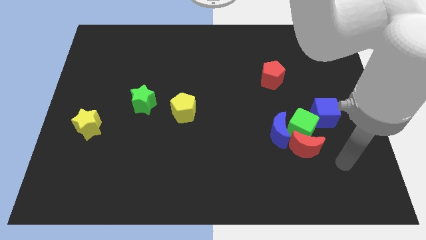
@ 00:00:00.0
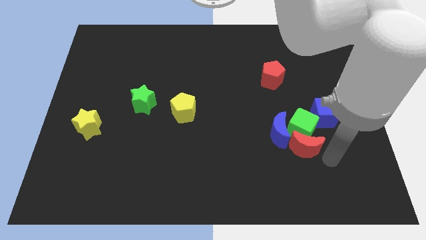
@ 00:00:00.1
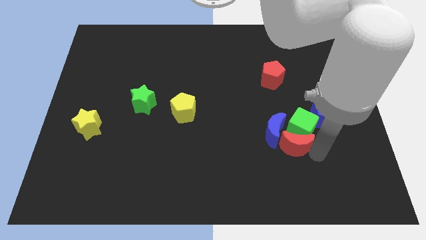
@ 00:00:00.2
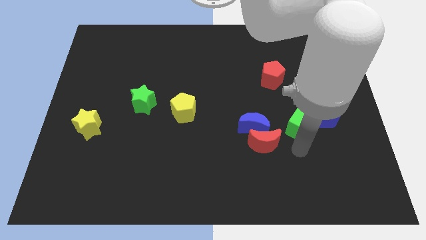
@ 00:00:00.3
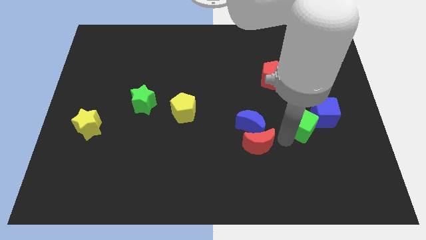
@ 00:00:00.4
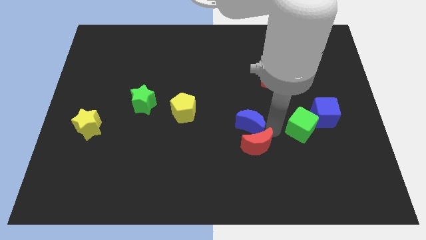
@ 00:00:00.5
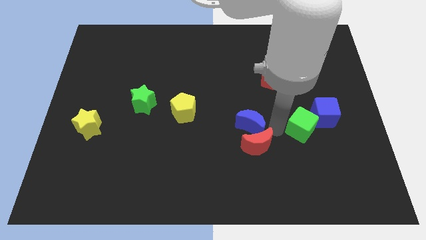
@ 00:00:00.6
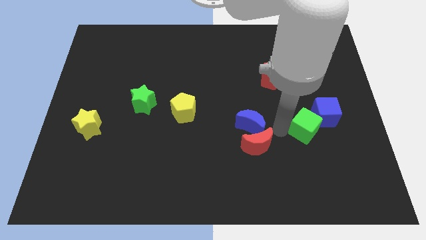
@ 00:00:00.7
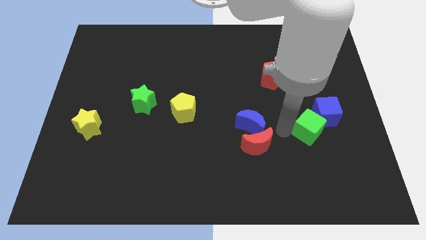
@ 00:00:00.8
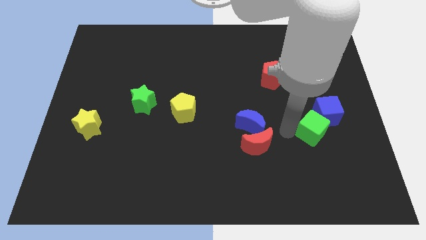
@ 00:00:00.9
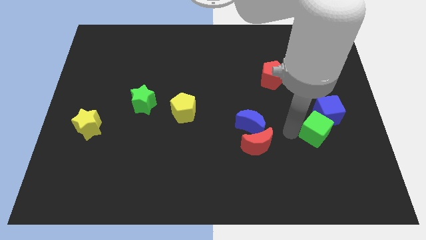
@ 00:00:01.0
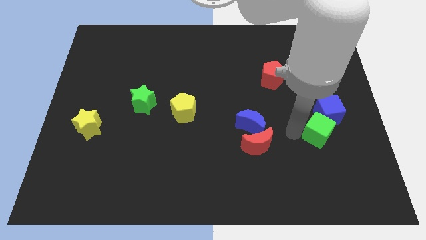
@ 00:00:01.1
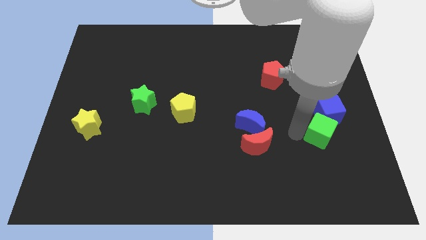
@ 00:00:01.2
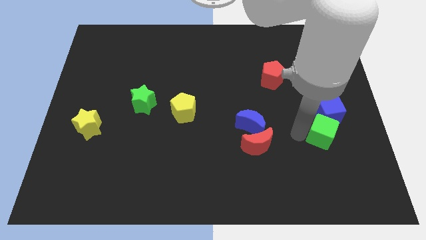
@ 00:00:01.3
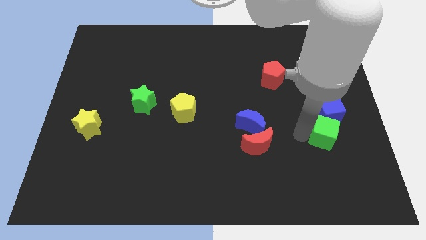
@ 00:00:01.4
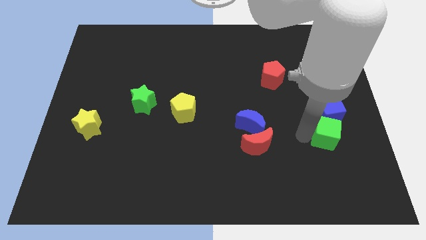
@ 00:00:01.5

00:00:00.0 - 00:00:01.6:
move the green cube away from the group

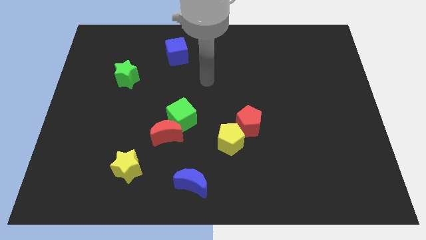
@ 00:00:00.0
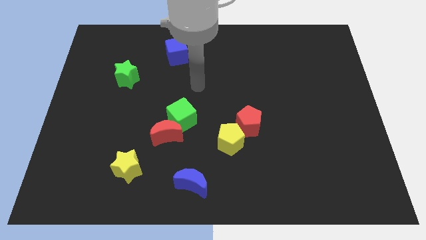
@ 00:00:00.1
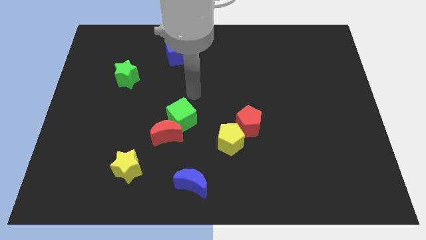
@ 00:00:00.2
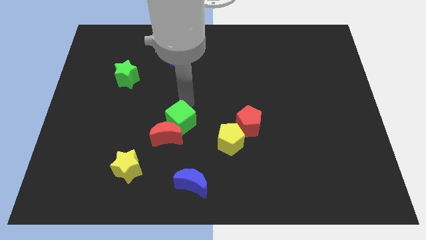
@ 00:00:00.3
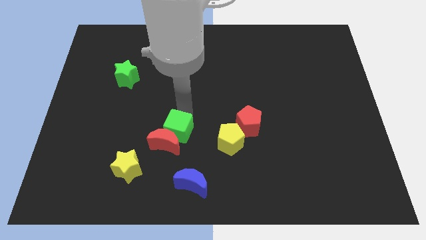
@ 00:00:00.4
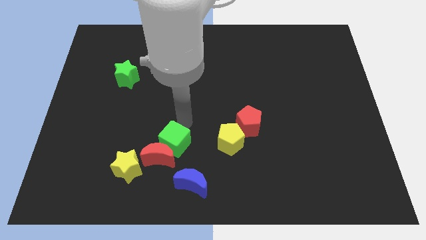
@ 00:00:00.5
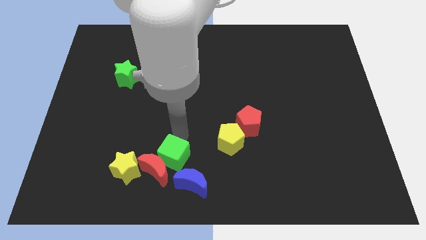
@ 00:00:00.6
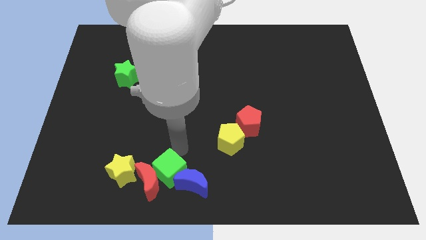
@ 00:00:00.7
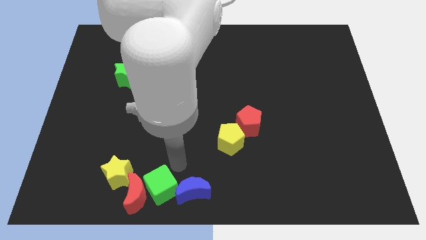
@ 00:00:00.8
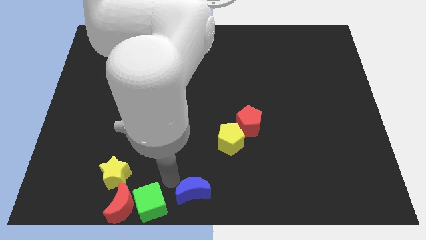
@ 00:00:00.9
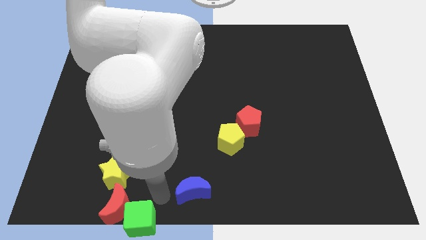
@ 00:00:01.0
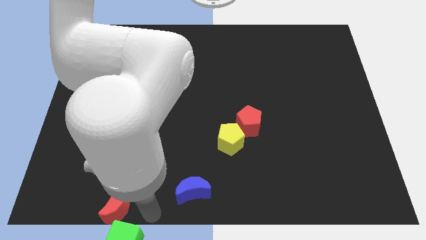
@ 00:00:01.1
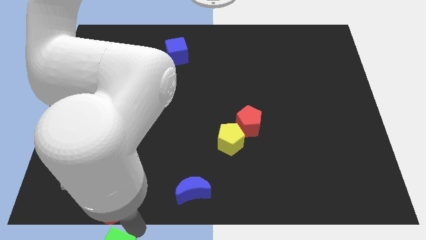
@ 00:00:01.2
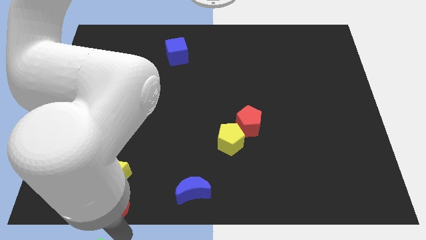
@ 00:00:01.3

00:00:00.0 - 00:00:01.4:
pull the red moon apart from the green cube

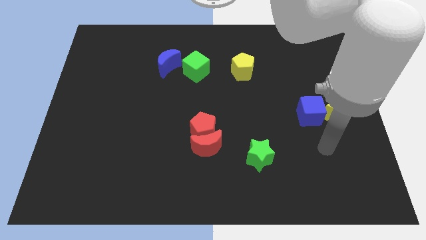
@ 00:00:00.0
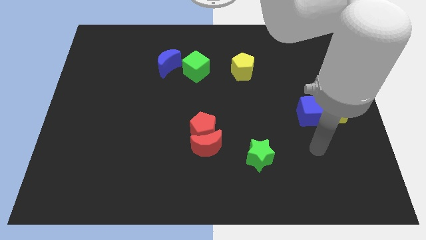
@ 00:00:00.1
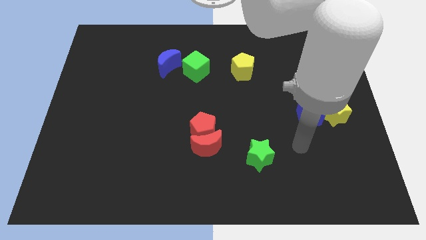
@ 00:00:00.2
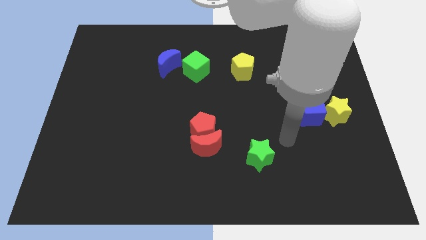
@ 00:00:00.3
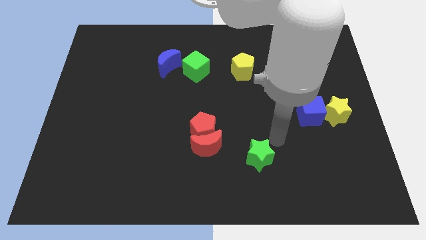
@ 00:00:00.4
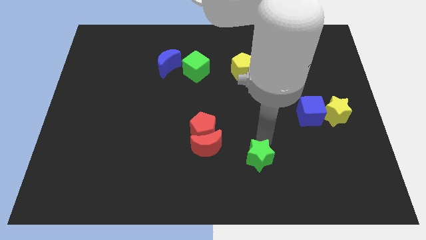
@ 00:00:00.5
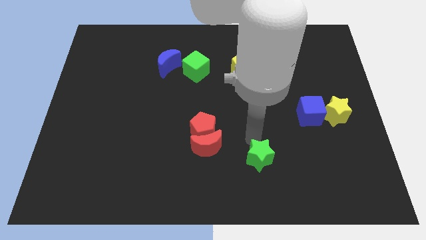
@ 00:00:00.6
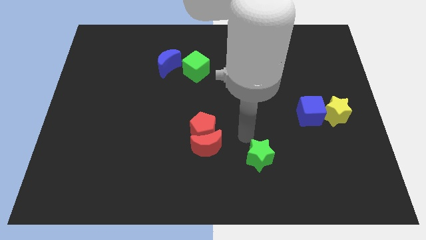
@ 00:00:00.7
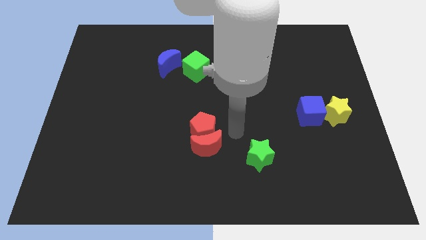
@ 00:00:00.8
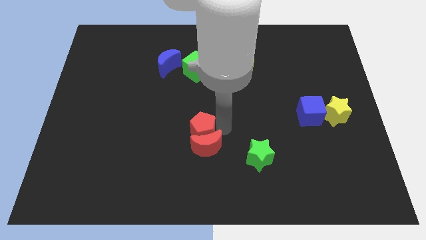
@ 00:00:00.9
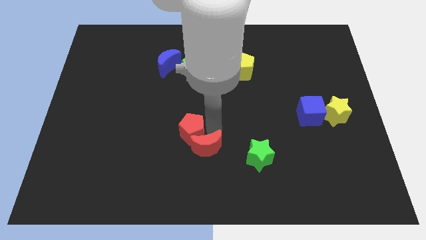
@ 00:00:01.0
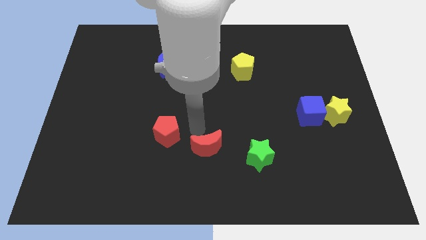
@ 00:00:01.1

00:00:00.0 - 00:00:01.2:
move the red moon away from the red pentagon

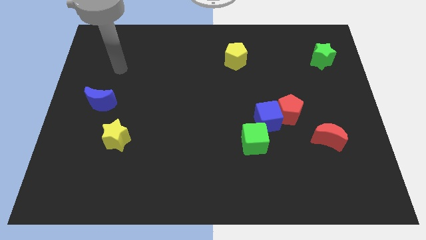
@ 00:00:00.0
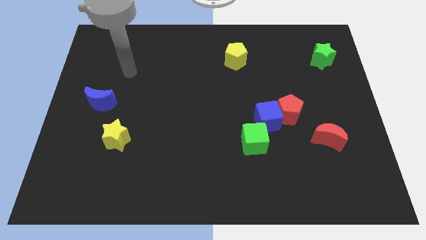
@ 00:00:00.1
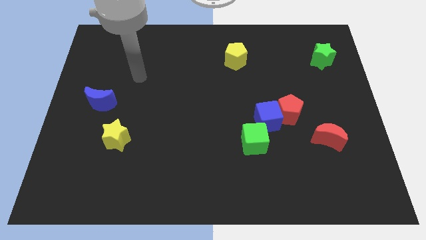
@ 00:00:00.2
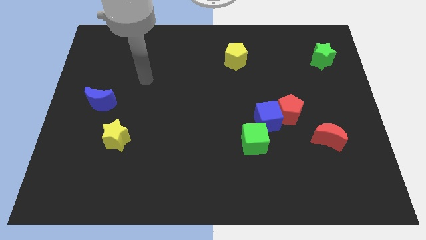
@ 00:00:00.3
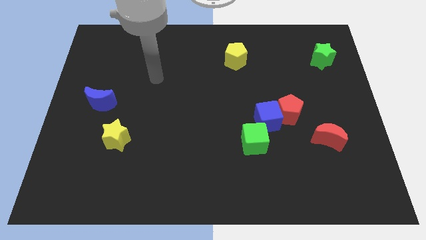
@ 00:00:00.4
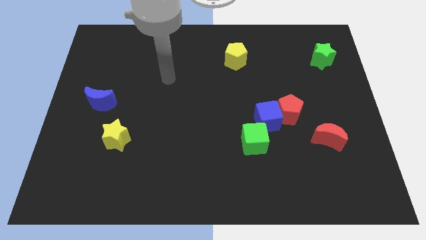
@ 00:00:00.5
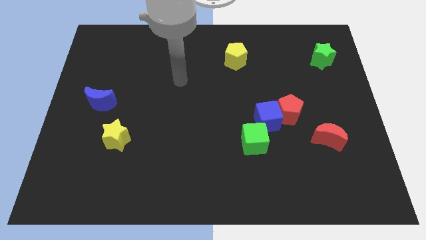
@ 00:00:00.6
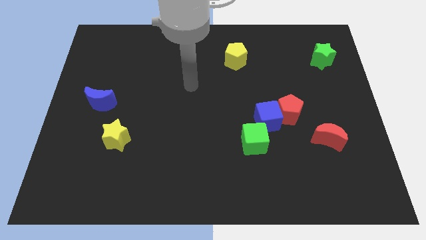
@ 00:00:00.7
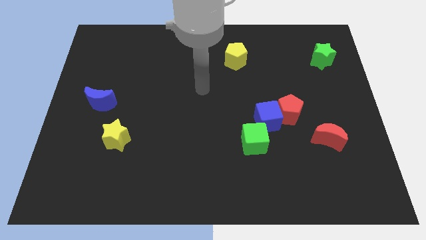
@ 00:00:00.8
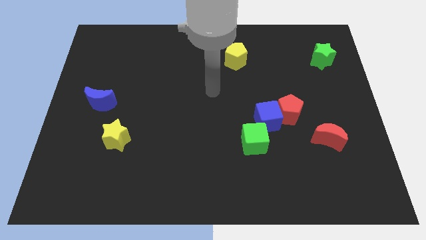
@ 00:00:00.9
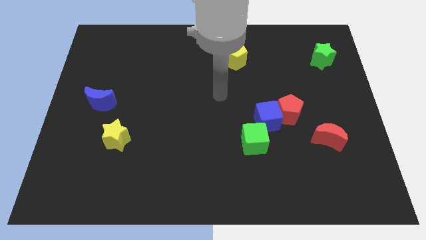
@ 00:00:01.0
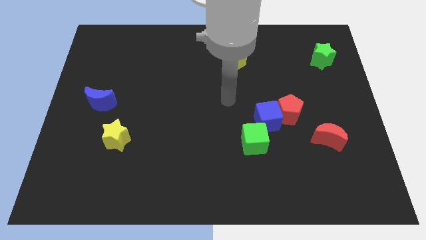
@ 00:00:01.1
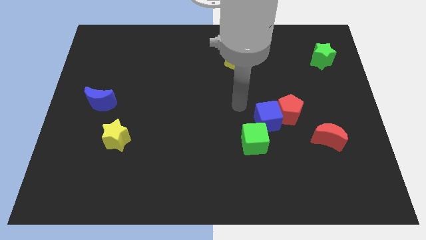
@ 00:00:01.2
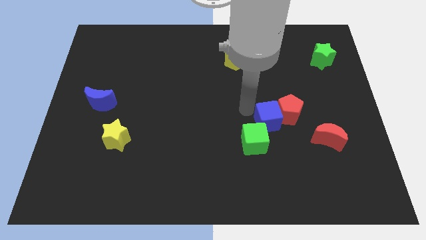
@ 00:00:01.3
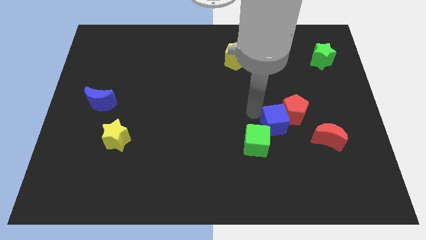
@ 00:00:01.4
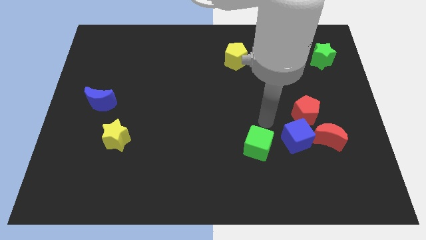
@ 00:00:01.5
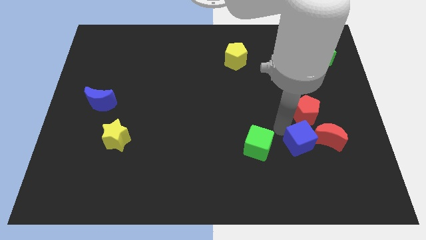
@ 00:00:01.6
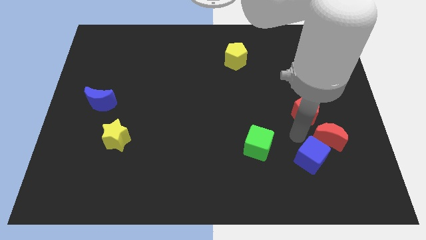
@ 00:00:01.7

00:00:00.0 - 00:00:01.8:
separate the red pentagon from the blue cube

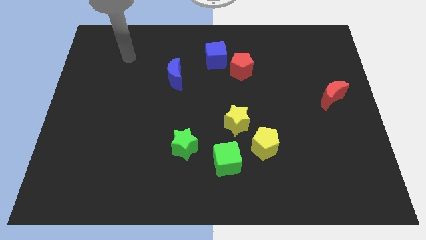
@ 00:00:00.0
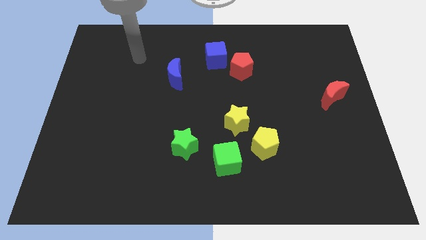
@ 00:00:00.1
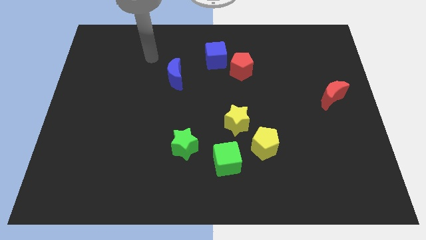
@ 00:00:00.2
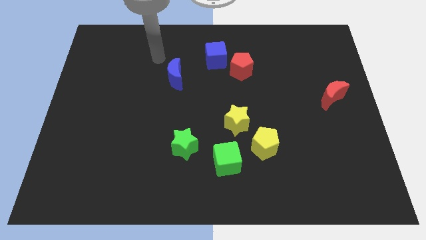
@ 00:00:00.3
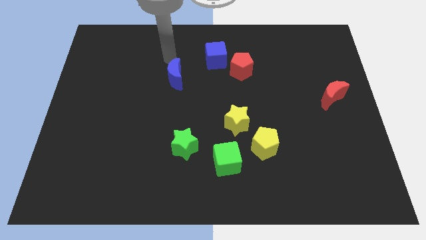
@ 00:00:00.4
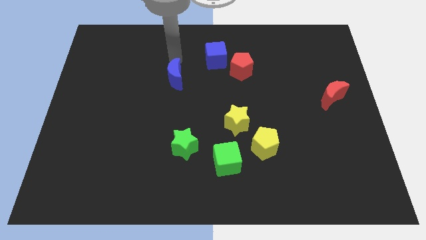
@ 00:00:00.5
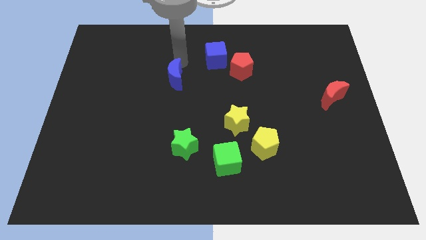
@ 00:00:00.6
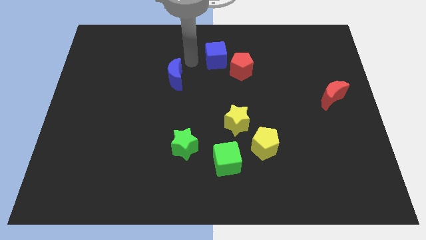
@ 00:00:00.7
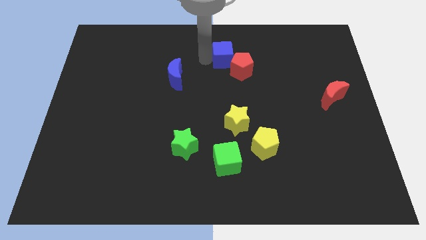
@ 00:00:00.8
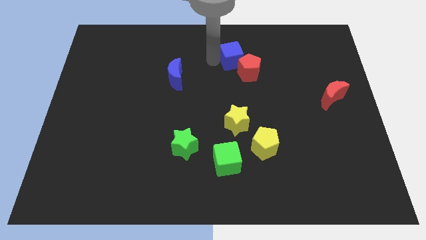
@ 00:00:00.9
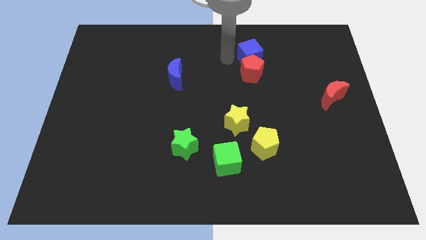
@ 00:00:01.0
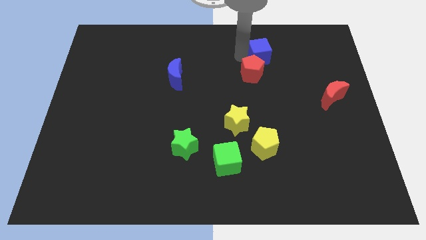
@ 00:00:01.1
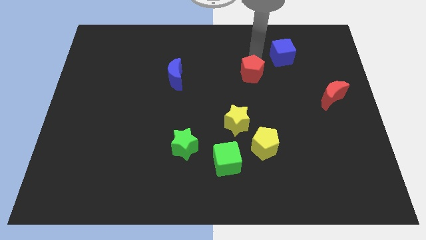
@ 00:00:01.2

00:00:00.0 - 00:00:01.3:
move the red pentagon away from the blue cube

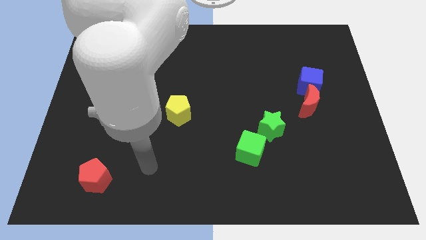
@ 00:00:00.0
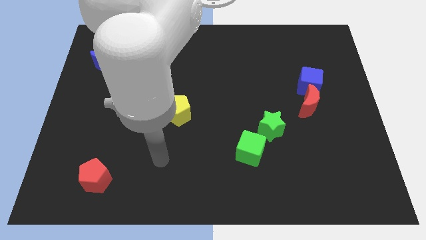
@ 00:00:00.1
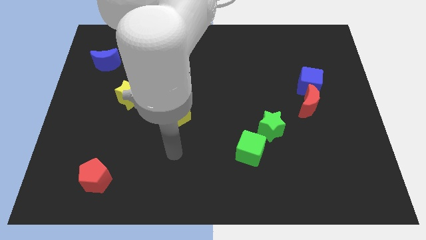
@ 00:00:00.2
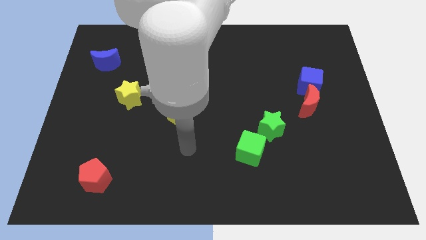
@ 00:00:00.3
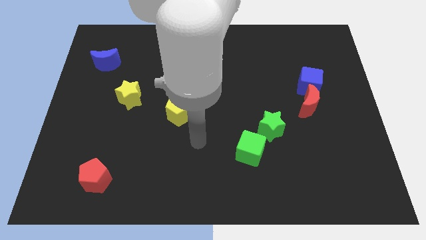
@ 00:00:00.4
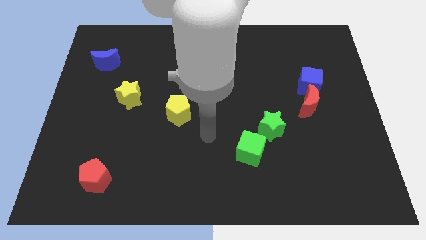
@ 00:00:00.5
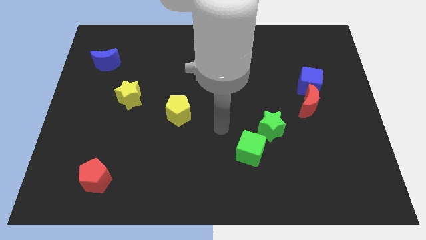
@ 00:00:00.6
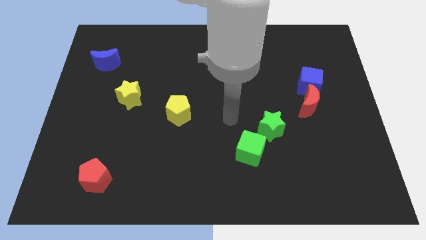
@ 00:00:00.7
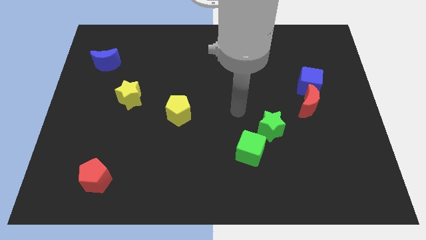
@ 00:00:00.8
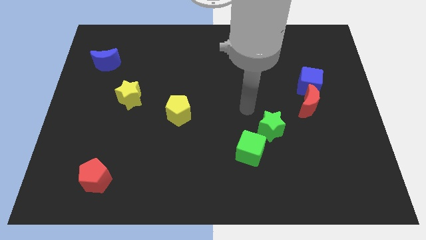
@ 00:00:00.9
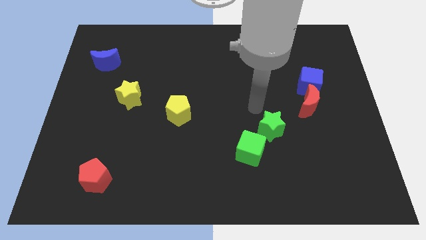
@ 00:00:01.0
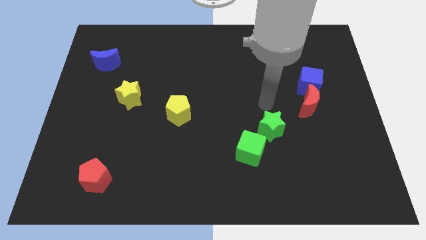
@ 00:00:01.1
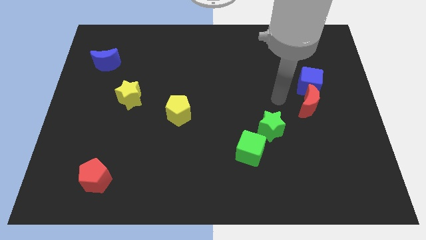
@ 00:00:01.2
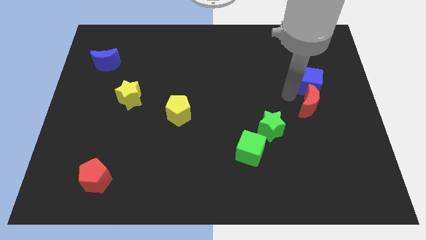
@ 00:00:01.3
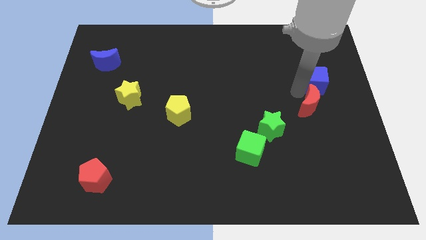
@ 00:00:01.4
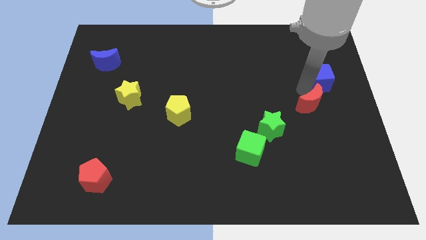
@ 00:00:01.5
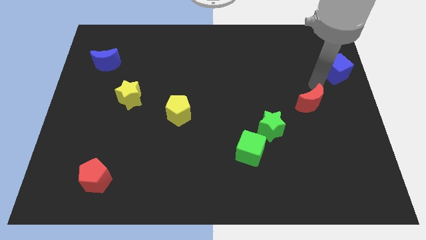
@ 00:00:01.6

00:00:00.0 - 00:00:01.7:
separate the red moon from the blue cube

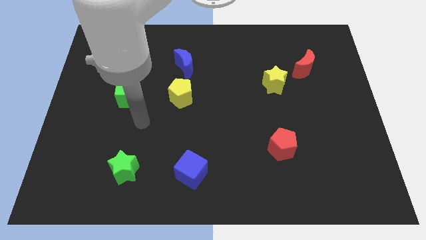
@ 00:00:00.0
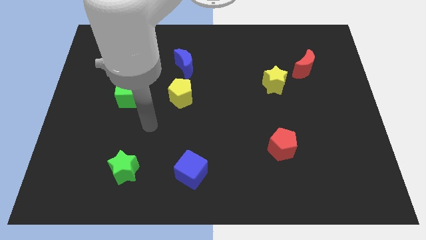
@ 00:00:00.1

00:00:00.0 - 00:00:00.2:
separate the red moon from the yellow star
